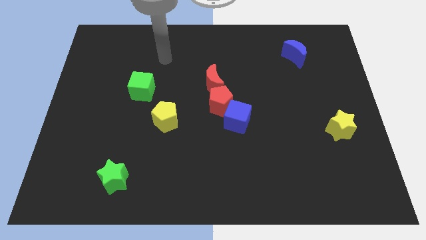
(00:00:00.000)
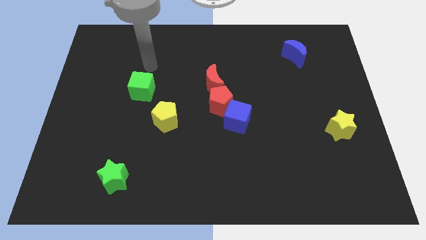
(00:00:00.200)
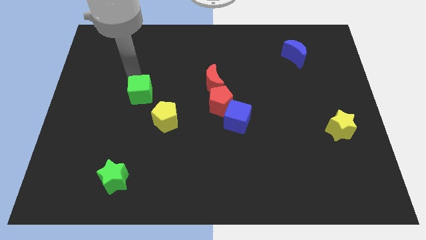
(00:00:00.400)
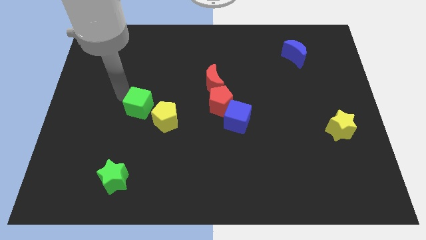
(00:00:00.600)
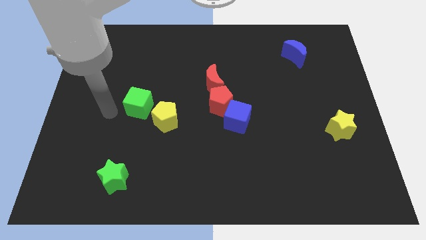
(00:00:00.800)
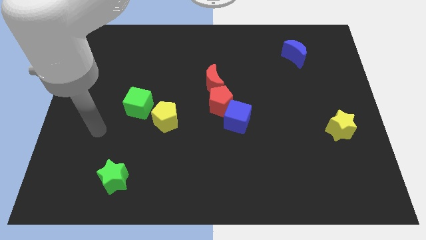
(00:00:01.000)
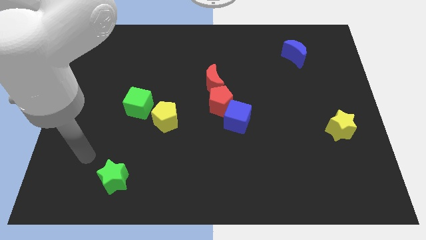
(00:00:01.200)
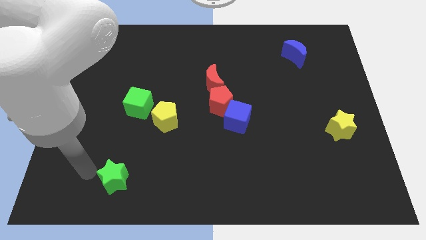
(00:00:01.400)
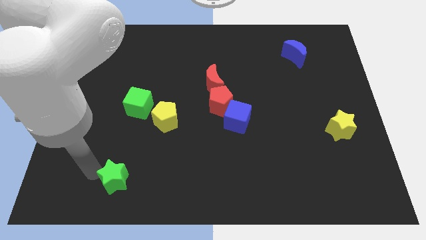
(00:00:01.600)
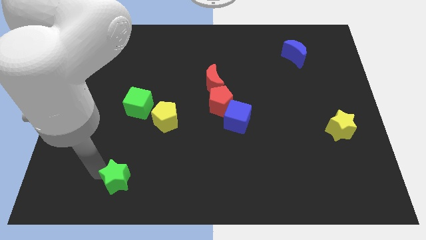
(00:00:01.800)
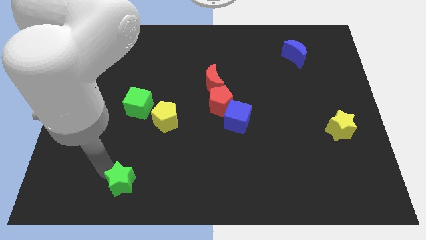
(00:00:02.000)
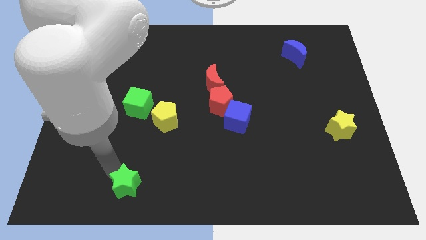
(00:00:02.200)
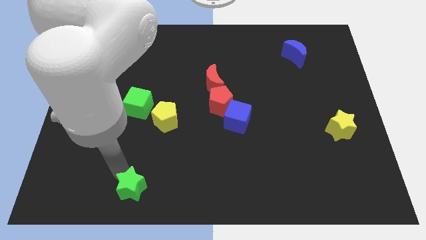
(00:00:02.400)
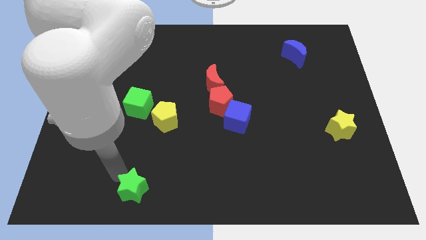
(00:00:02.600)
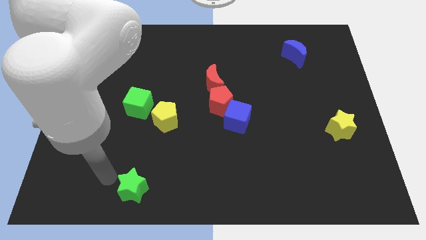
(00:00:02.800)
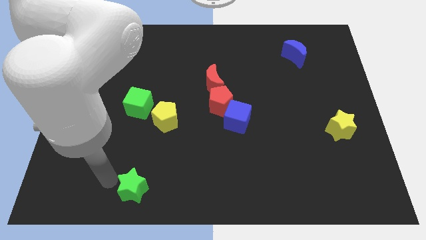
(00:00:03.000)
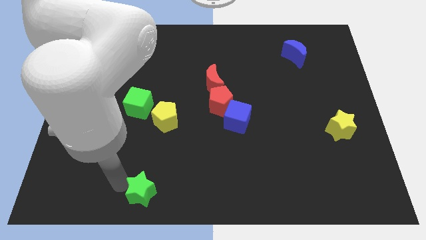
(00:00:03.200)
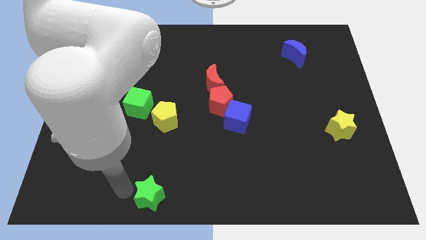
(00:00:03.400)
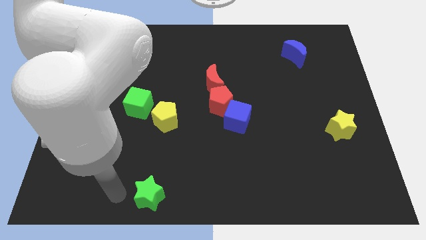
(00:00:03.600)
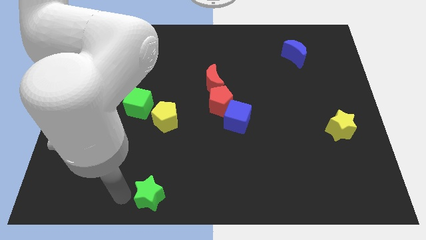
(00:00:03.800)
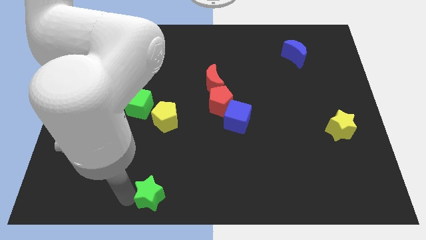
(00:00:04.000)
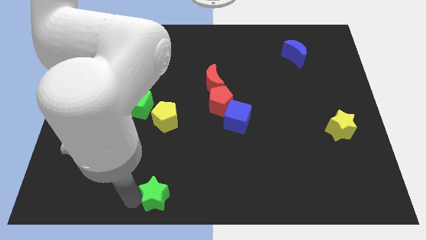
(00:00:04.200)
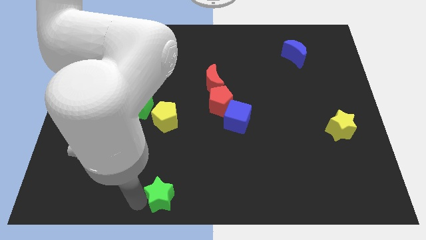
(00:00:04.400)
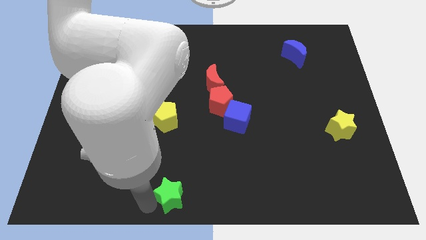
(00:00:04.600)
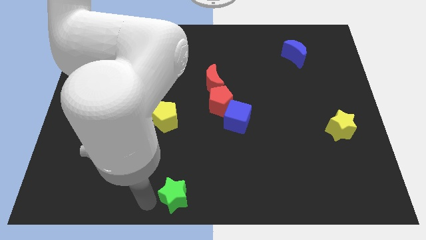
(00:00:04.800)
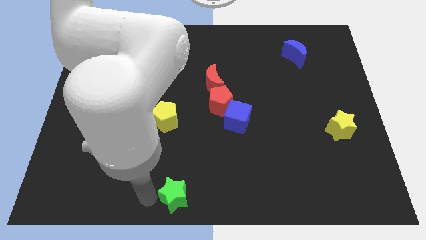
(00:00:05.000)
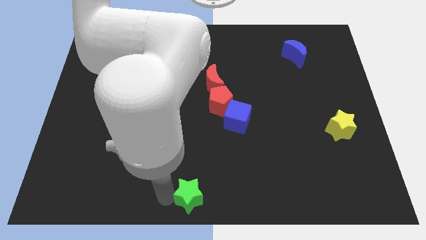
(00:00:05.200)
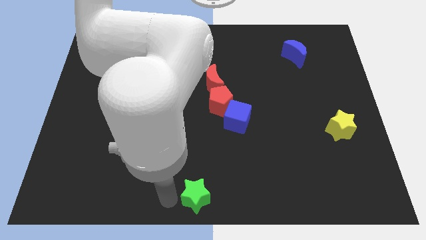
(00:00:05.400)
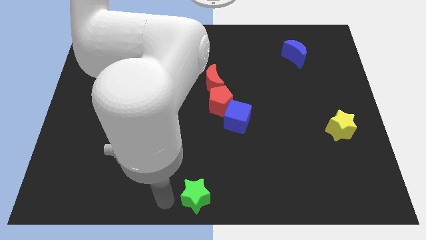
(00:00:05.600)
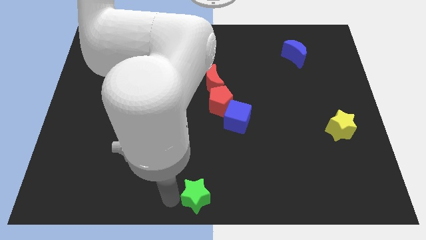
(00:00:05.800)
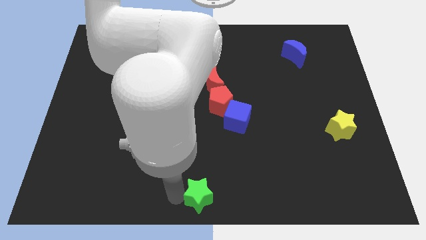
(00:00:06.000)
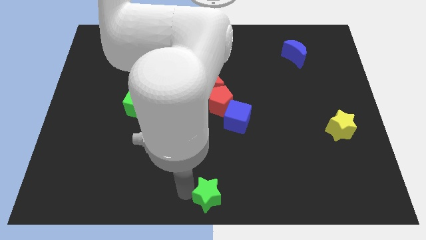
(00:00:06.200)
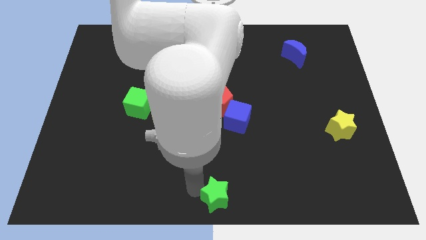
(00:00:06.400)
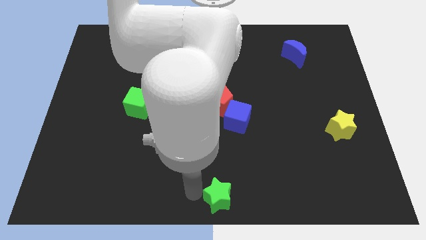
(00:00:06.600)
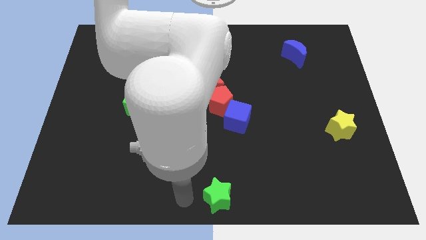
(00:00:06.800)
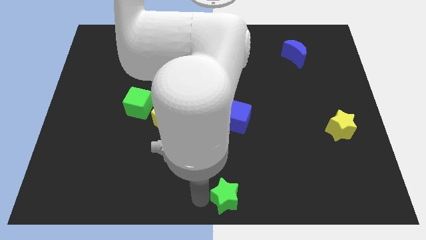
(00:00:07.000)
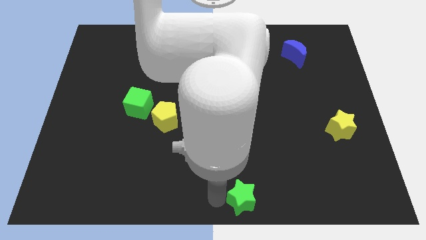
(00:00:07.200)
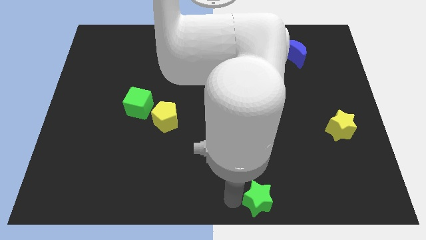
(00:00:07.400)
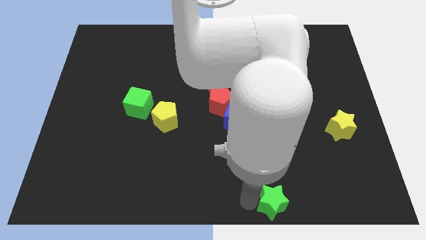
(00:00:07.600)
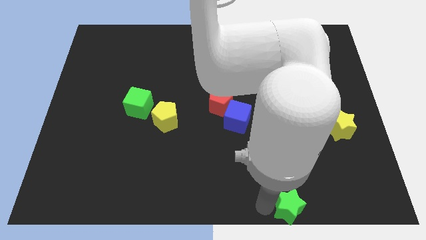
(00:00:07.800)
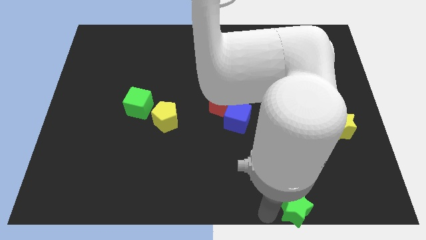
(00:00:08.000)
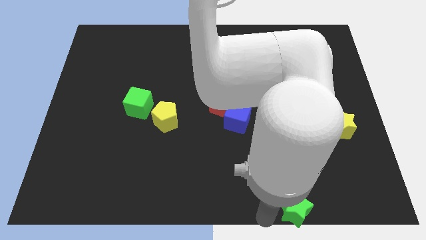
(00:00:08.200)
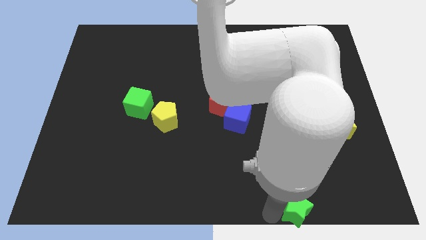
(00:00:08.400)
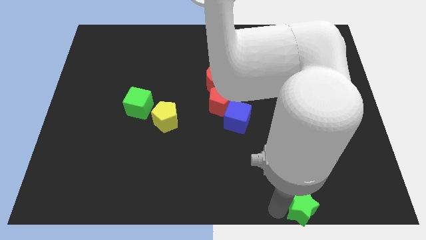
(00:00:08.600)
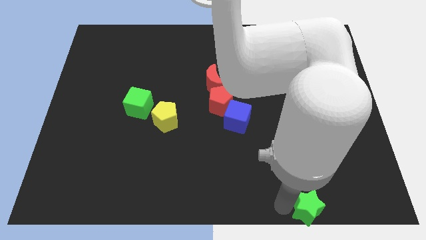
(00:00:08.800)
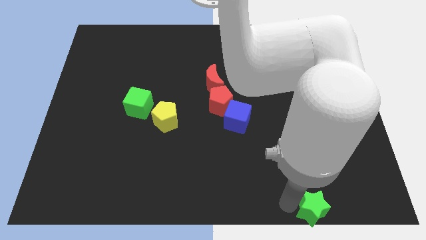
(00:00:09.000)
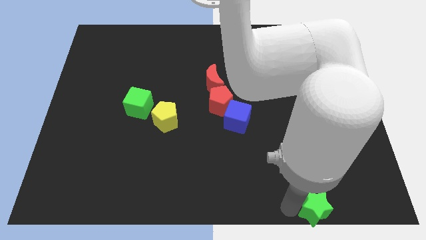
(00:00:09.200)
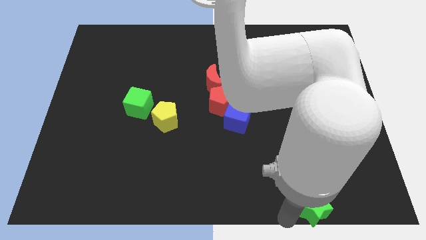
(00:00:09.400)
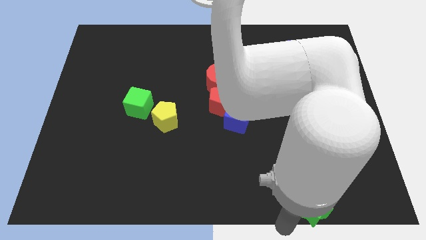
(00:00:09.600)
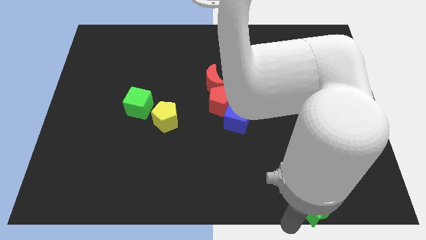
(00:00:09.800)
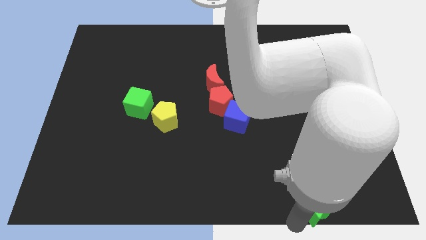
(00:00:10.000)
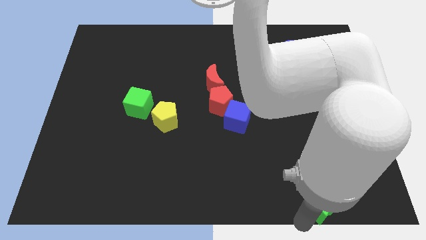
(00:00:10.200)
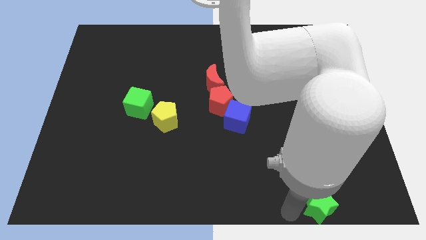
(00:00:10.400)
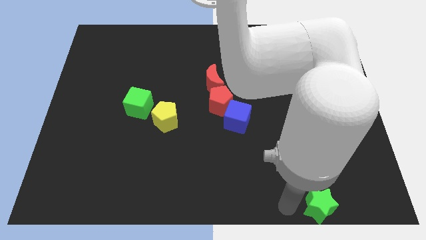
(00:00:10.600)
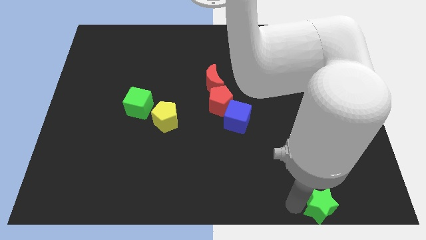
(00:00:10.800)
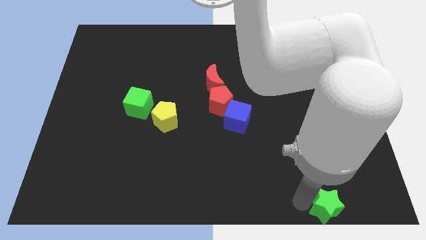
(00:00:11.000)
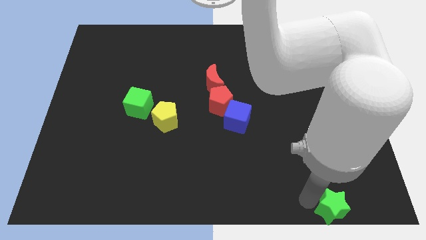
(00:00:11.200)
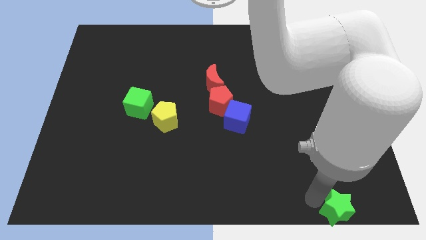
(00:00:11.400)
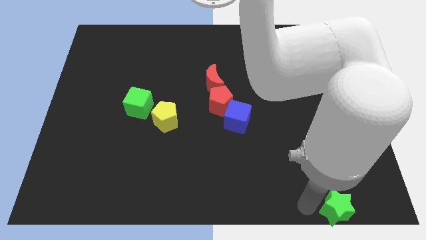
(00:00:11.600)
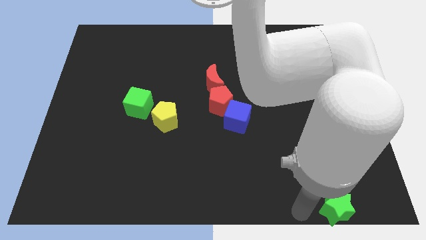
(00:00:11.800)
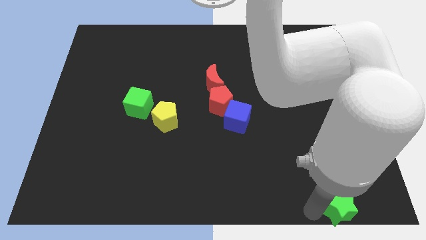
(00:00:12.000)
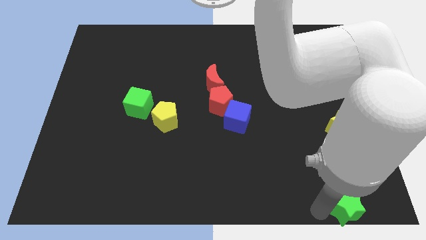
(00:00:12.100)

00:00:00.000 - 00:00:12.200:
move the green star to the bottom right of the board
